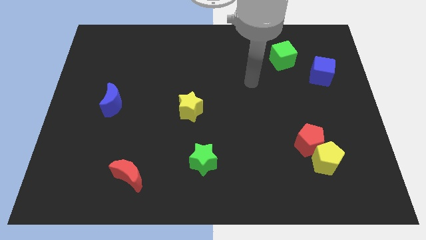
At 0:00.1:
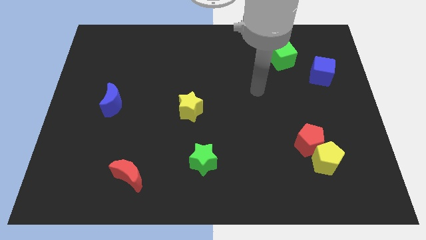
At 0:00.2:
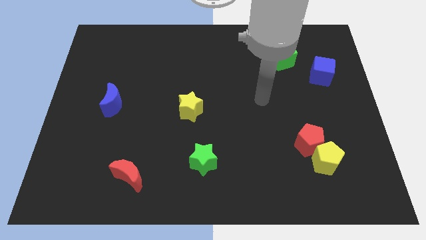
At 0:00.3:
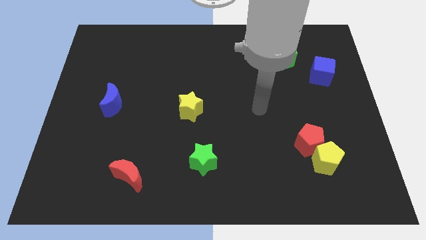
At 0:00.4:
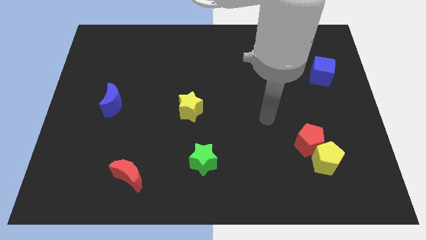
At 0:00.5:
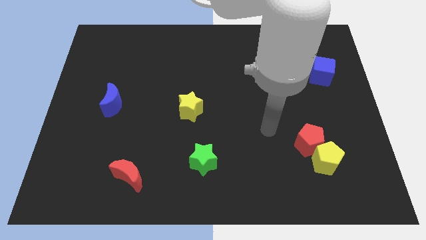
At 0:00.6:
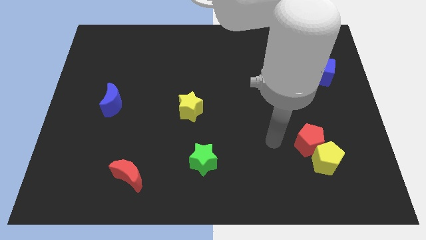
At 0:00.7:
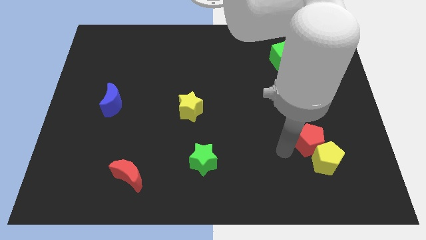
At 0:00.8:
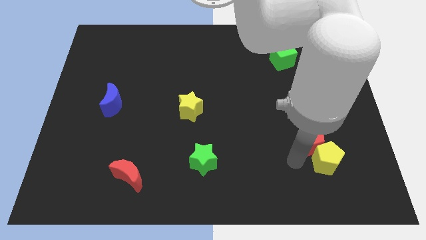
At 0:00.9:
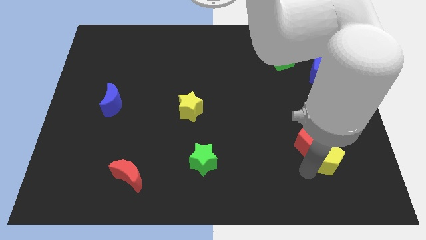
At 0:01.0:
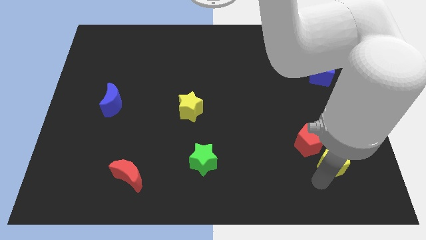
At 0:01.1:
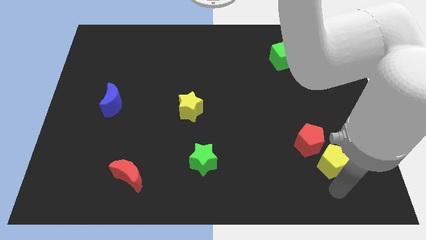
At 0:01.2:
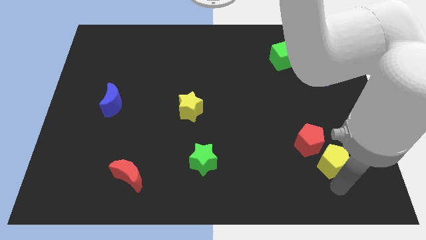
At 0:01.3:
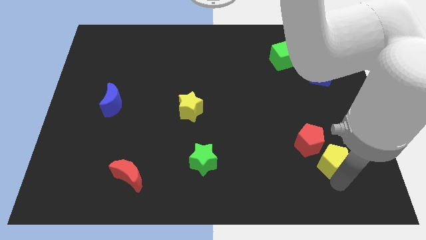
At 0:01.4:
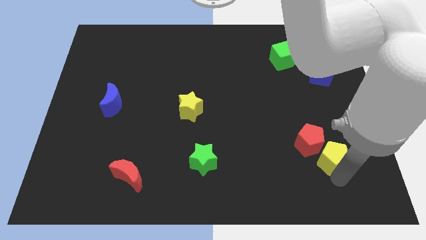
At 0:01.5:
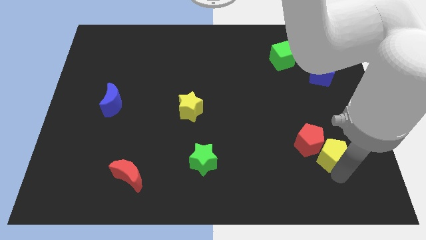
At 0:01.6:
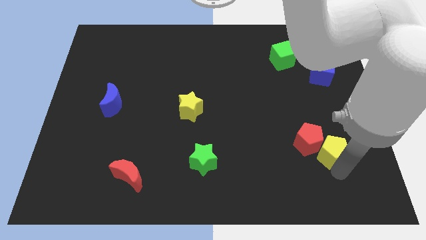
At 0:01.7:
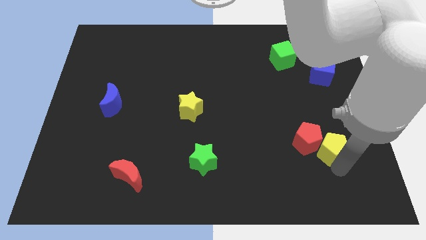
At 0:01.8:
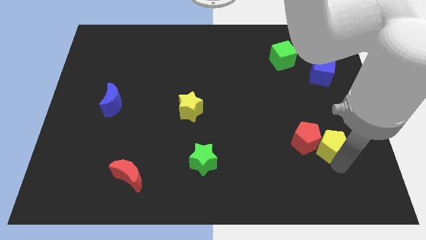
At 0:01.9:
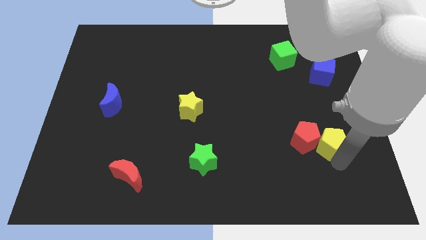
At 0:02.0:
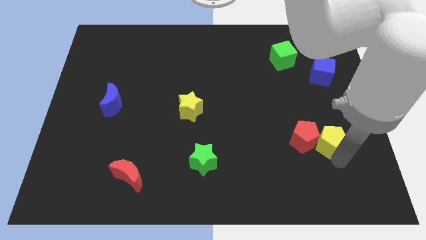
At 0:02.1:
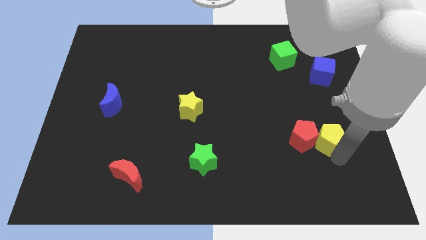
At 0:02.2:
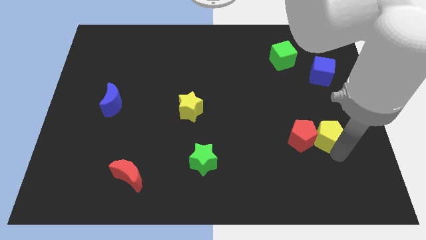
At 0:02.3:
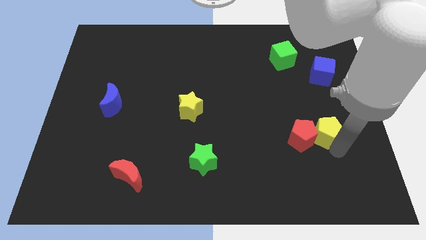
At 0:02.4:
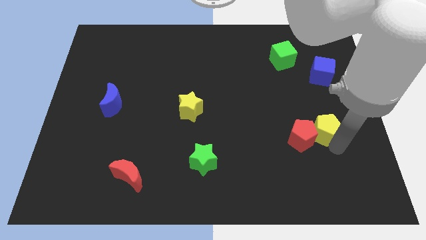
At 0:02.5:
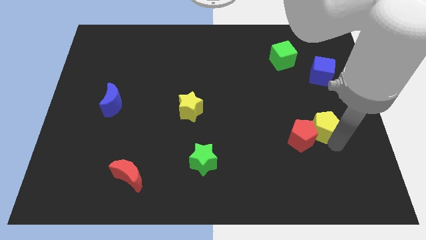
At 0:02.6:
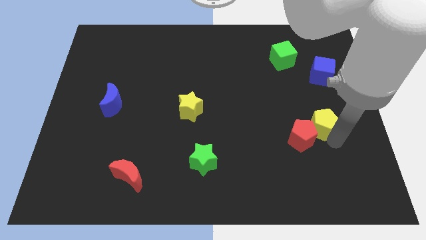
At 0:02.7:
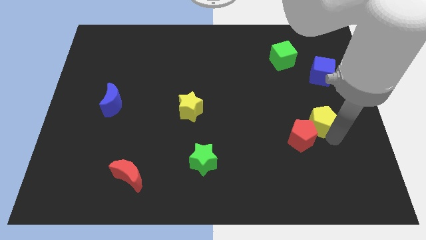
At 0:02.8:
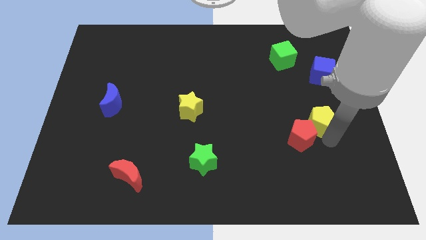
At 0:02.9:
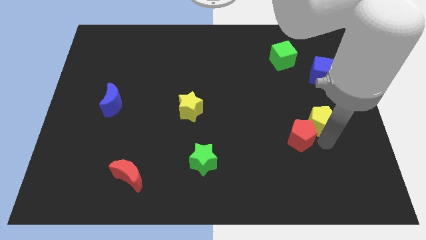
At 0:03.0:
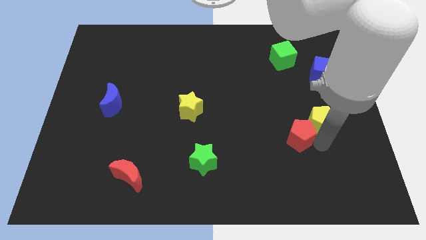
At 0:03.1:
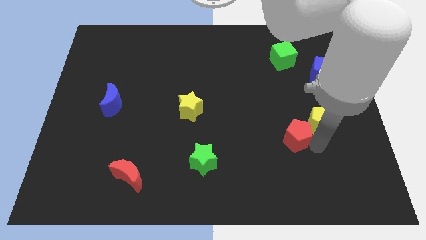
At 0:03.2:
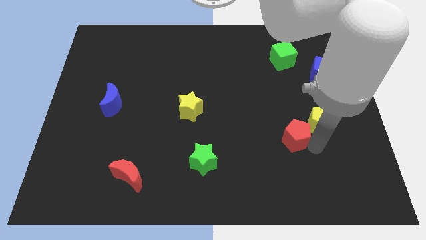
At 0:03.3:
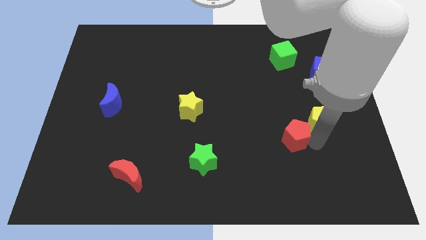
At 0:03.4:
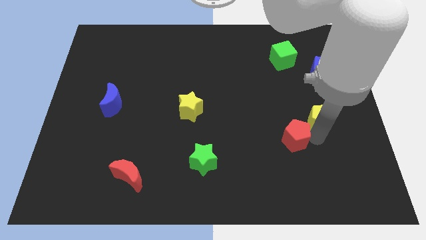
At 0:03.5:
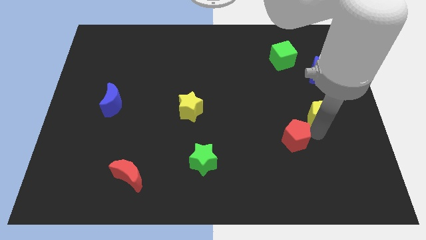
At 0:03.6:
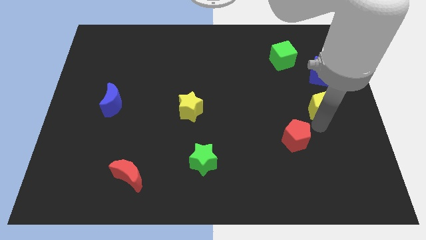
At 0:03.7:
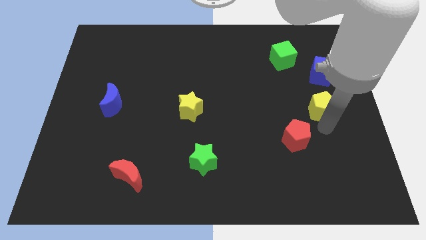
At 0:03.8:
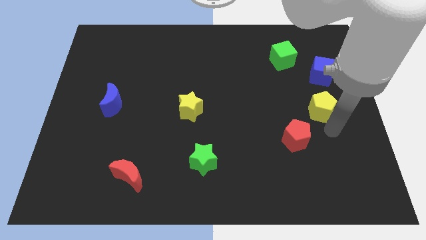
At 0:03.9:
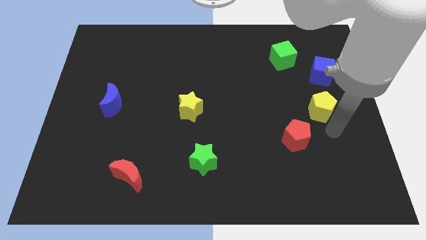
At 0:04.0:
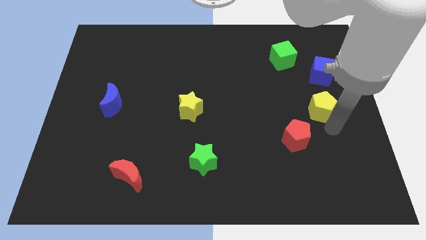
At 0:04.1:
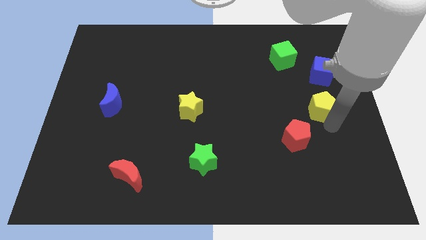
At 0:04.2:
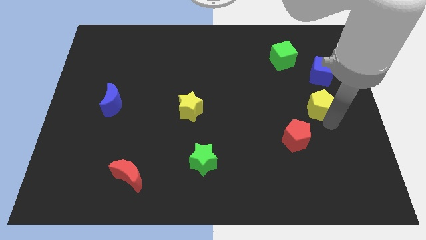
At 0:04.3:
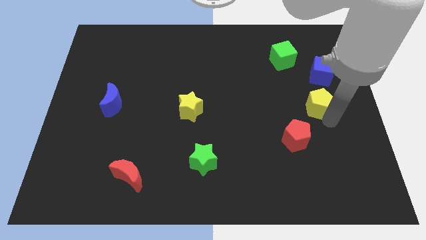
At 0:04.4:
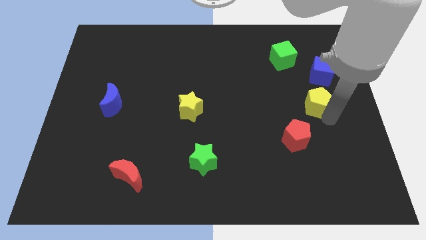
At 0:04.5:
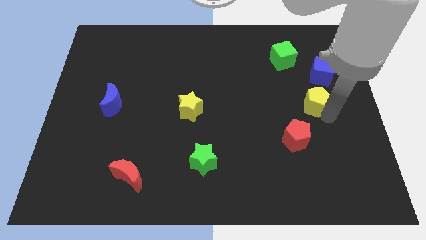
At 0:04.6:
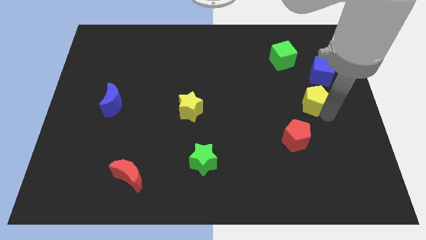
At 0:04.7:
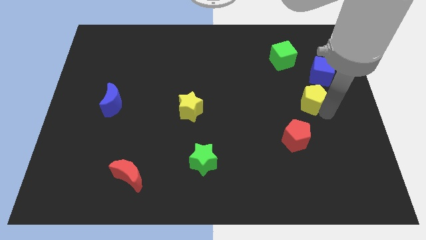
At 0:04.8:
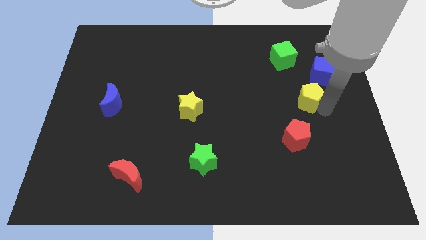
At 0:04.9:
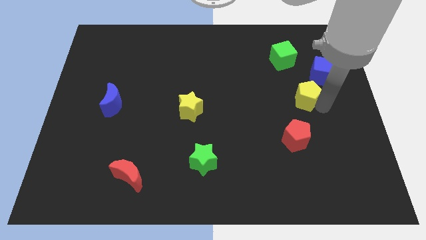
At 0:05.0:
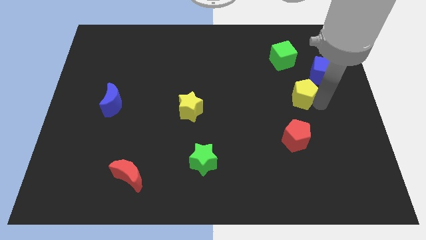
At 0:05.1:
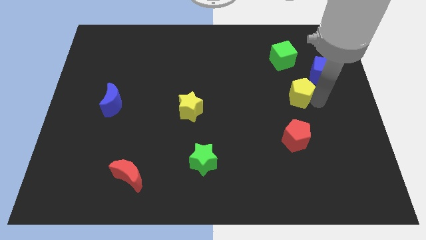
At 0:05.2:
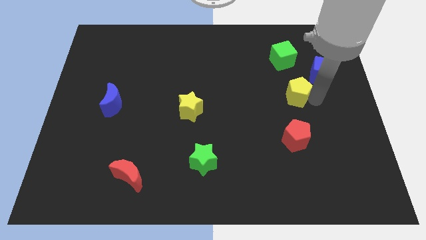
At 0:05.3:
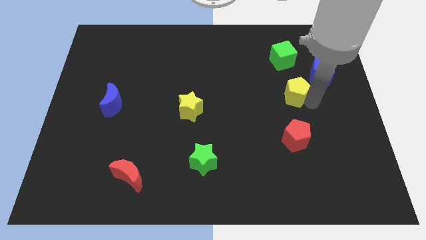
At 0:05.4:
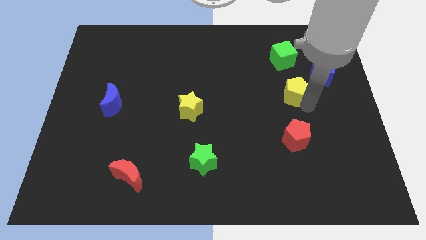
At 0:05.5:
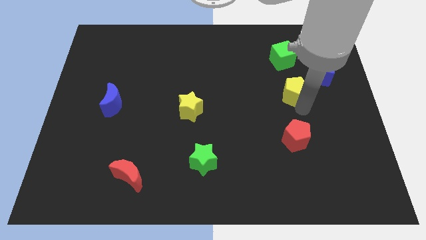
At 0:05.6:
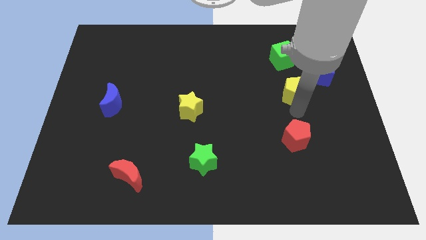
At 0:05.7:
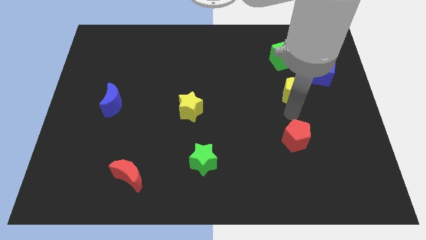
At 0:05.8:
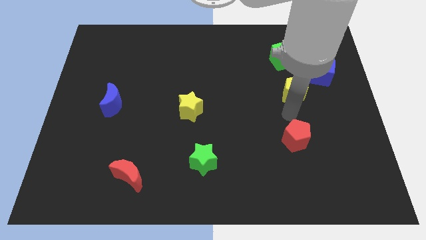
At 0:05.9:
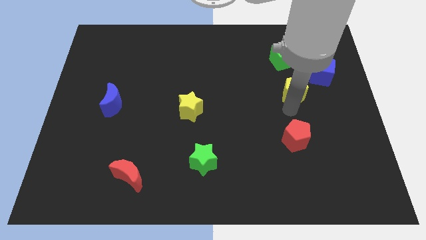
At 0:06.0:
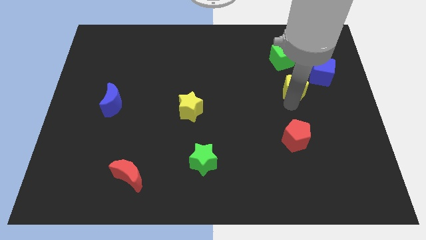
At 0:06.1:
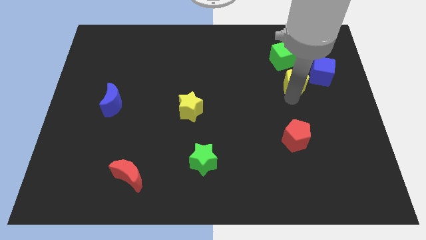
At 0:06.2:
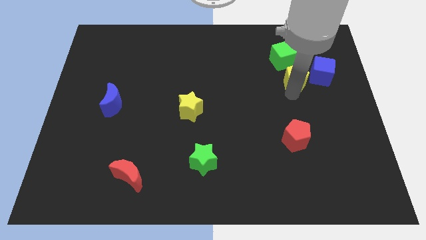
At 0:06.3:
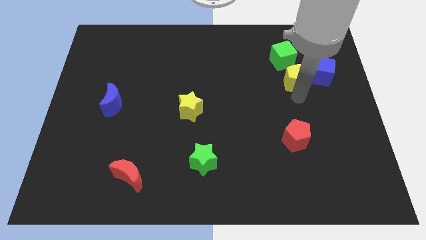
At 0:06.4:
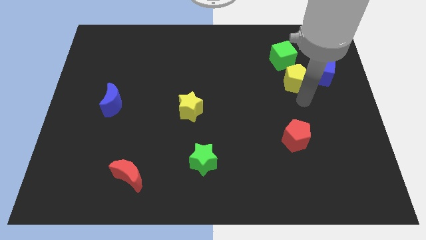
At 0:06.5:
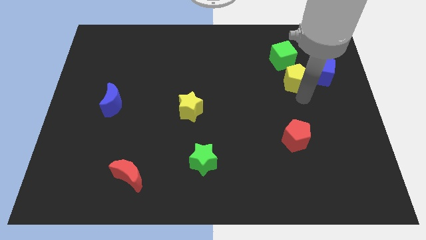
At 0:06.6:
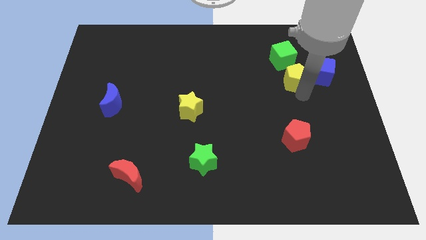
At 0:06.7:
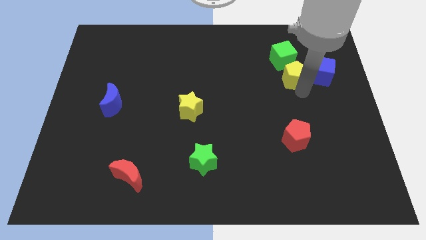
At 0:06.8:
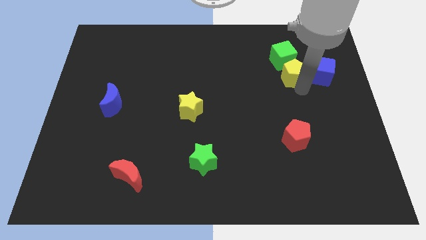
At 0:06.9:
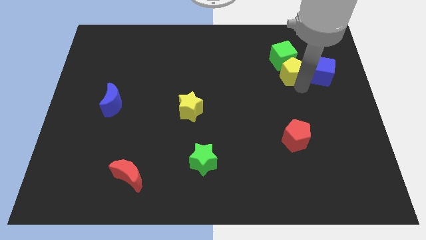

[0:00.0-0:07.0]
put the yellow pentagon close to the green cube
